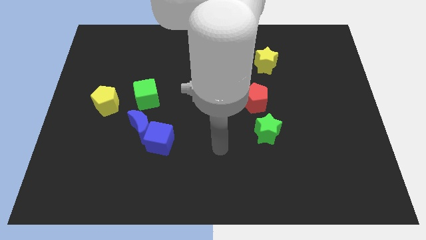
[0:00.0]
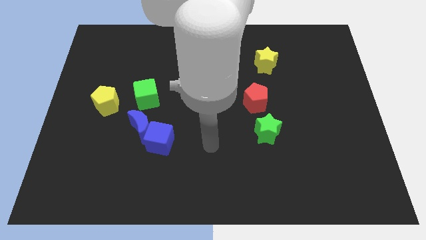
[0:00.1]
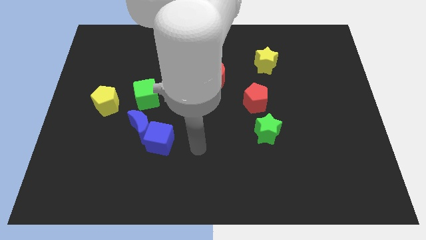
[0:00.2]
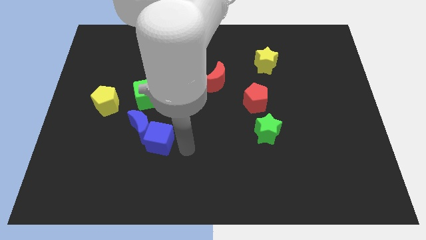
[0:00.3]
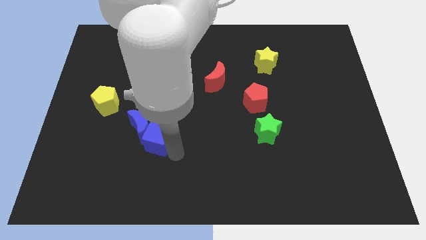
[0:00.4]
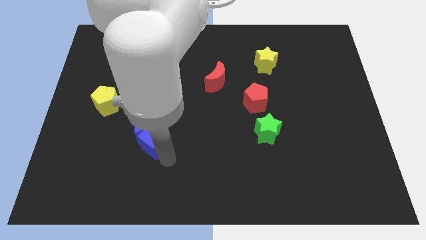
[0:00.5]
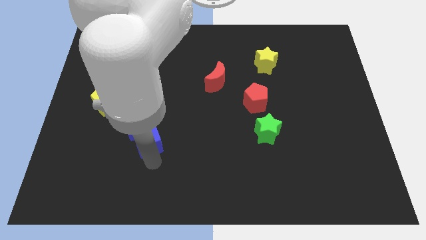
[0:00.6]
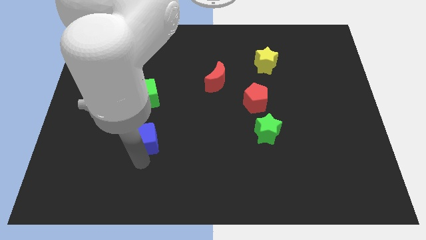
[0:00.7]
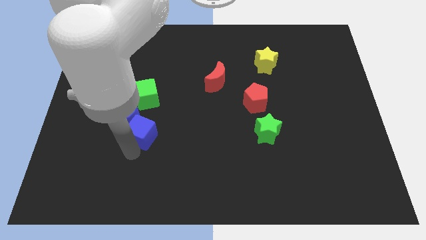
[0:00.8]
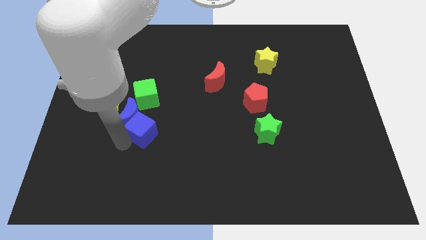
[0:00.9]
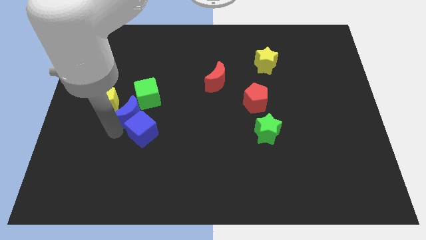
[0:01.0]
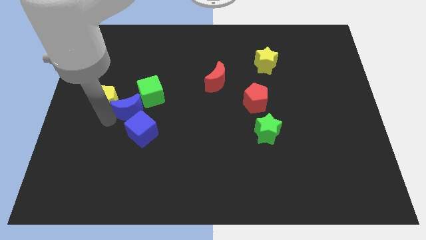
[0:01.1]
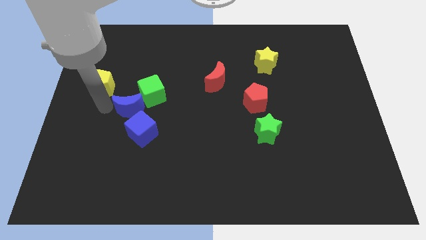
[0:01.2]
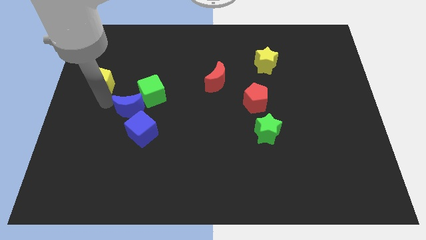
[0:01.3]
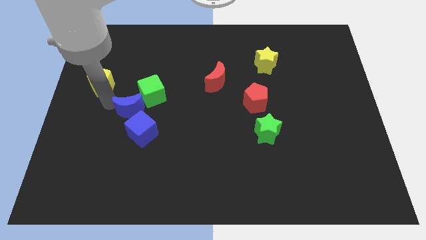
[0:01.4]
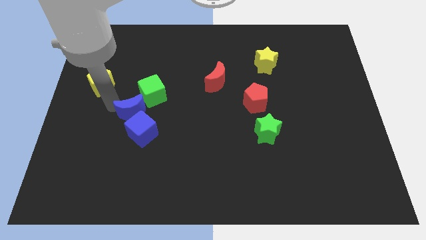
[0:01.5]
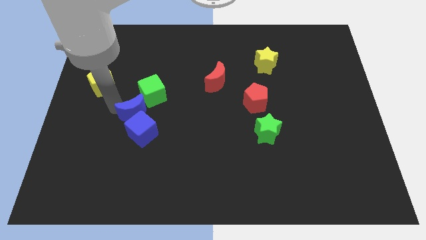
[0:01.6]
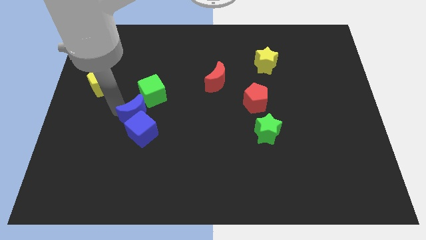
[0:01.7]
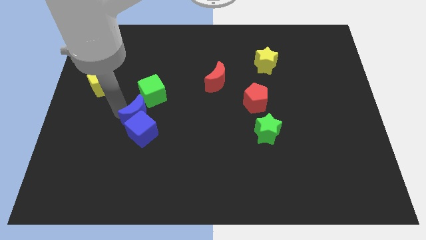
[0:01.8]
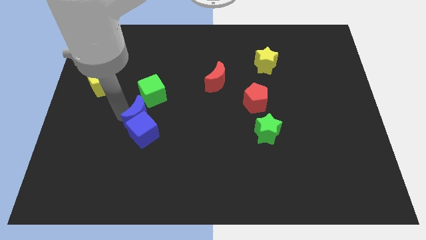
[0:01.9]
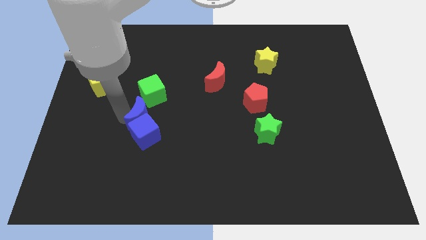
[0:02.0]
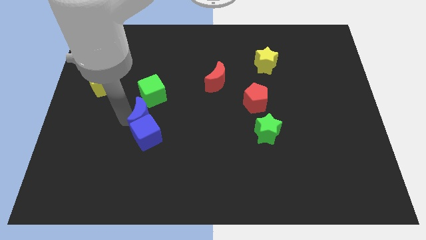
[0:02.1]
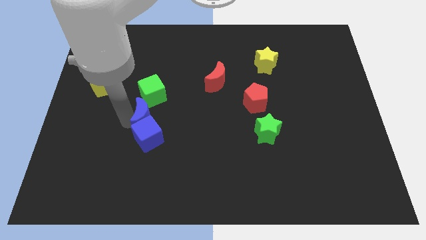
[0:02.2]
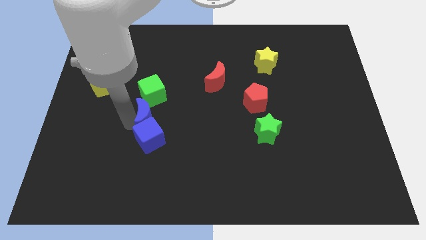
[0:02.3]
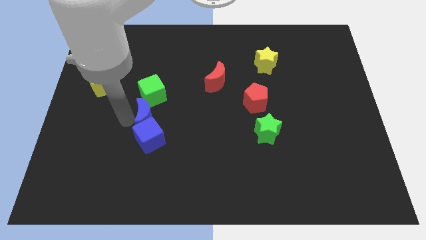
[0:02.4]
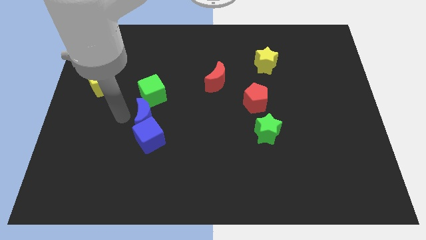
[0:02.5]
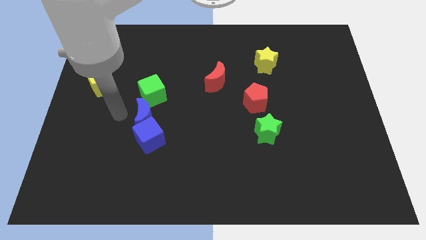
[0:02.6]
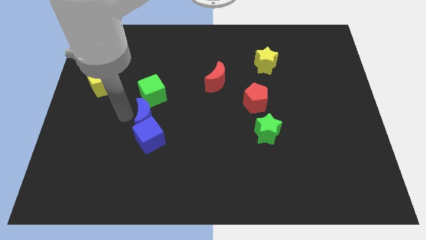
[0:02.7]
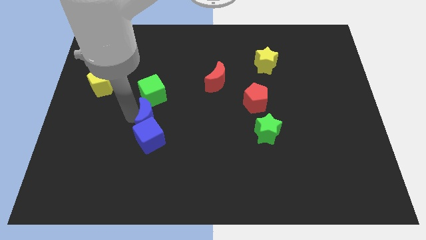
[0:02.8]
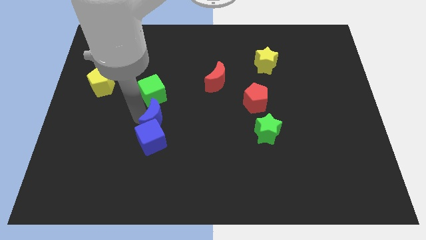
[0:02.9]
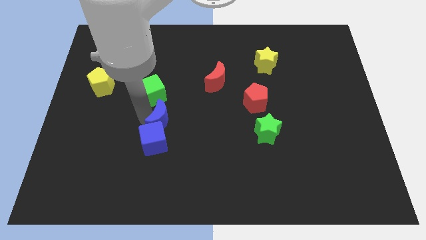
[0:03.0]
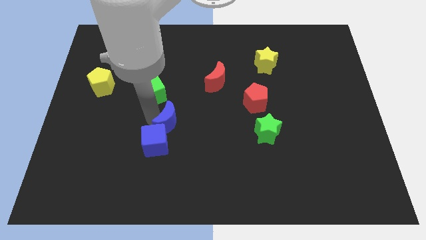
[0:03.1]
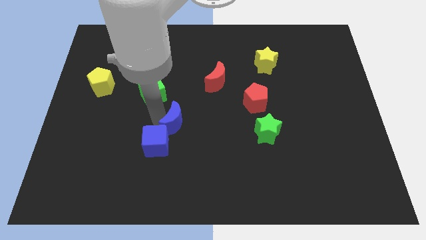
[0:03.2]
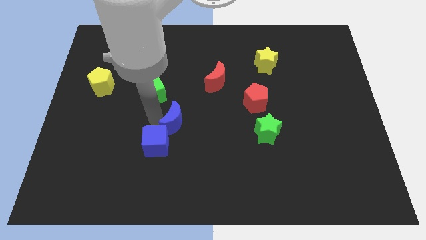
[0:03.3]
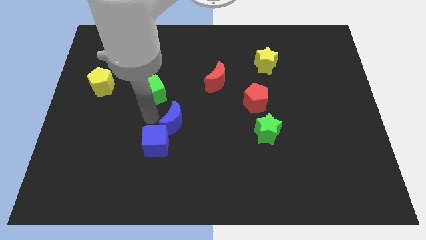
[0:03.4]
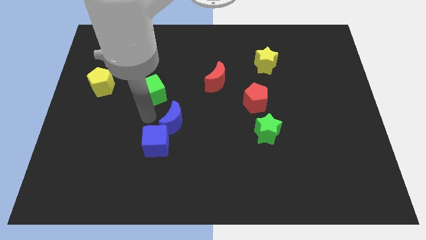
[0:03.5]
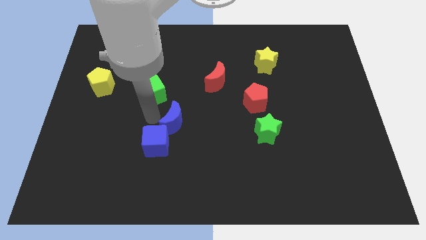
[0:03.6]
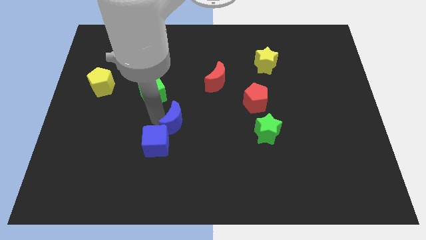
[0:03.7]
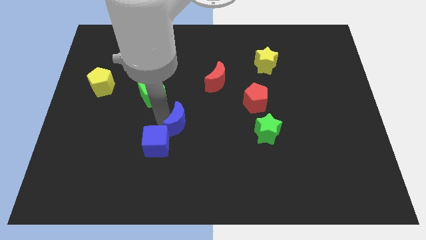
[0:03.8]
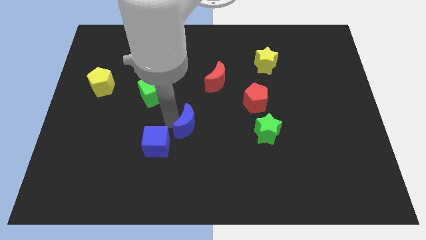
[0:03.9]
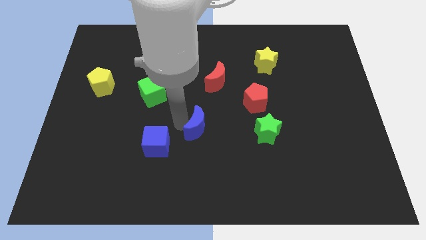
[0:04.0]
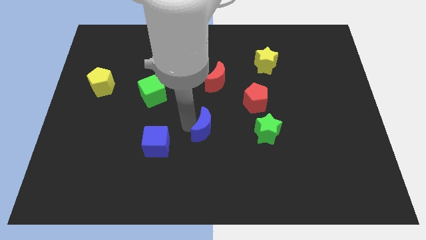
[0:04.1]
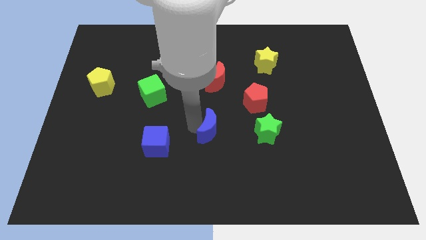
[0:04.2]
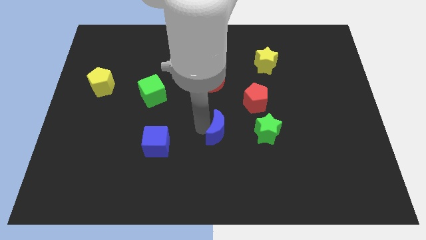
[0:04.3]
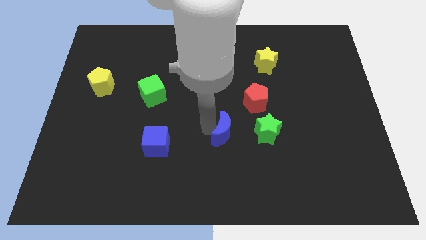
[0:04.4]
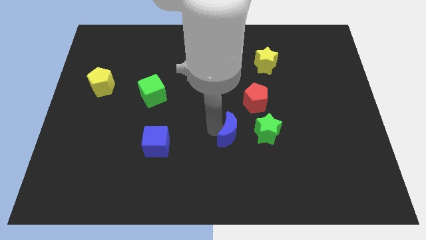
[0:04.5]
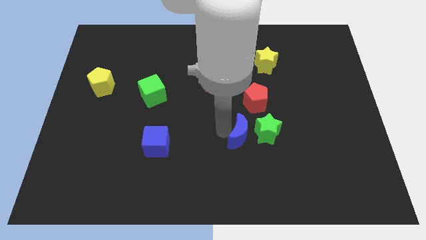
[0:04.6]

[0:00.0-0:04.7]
move the blue moon right

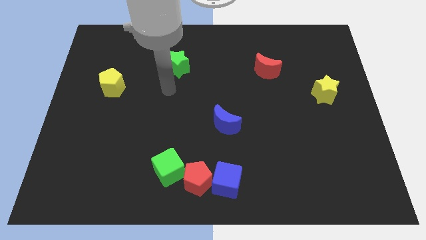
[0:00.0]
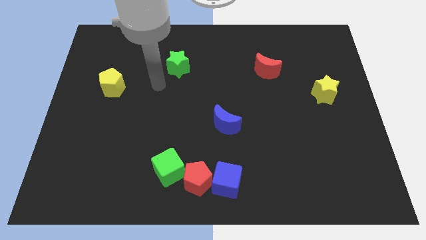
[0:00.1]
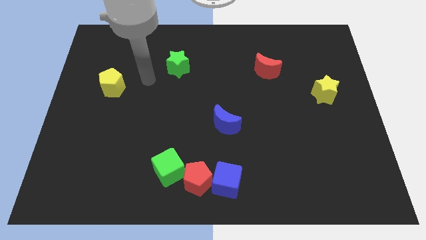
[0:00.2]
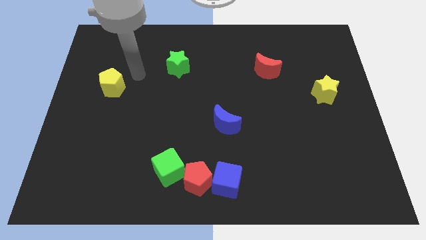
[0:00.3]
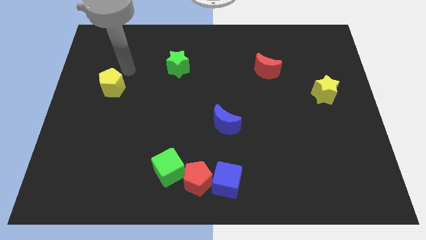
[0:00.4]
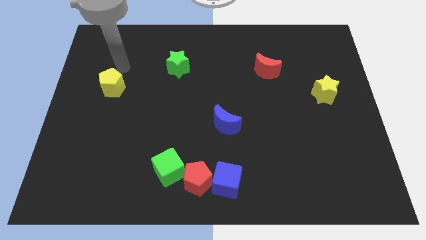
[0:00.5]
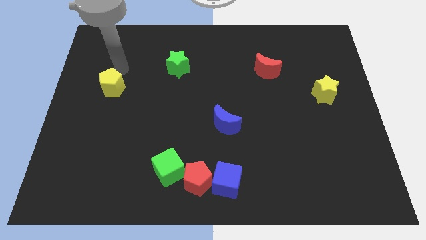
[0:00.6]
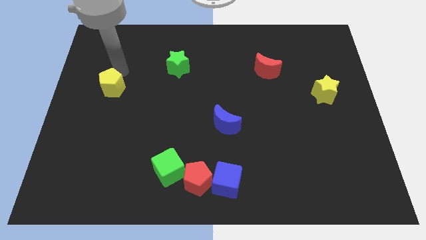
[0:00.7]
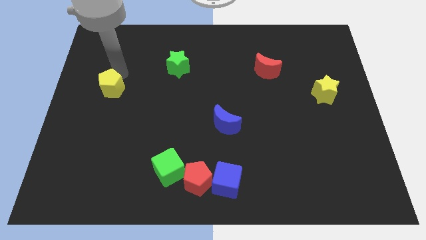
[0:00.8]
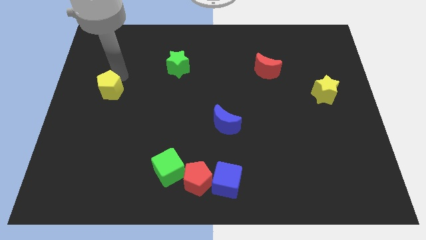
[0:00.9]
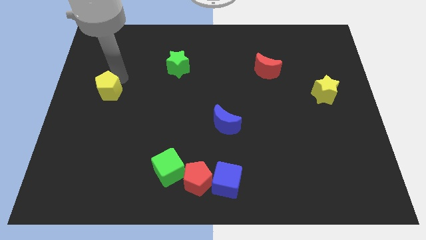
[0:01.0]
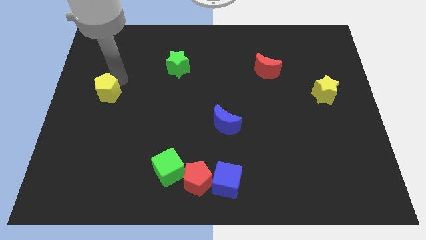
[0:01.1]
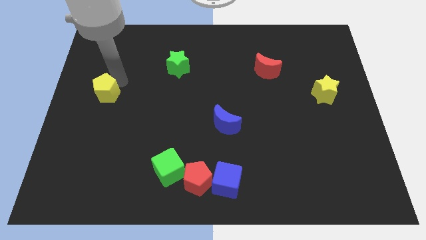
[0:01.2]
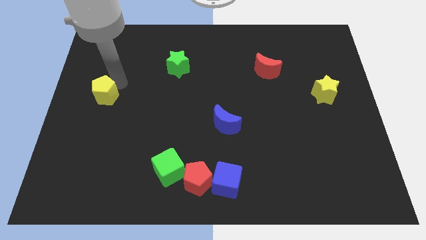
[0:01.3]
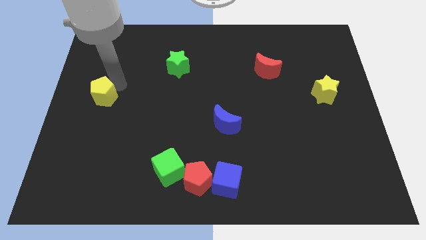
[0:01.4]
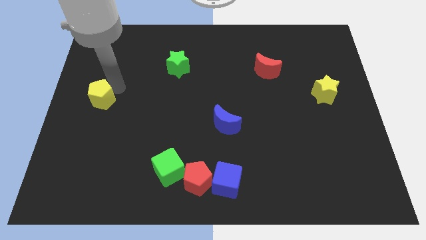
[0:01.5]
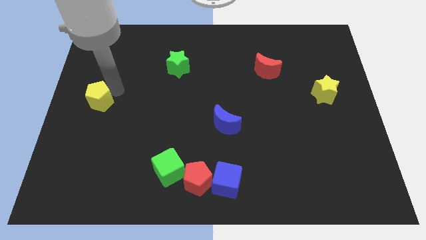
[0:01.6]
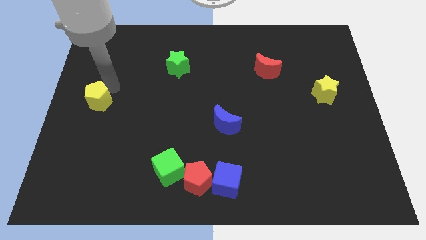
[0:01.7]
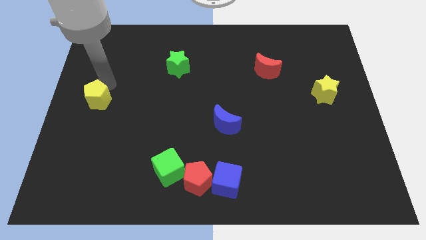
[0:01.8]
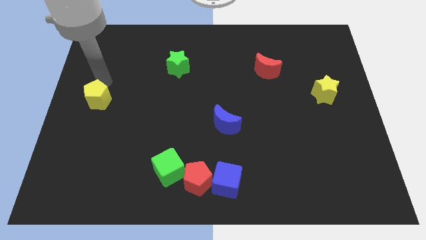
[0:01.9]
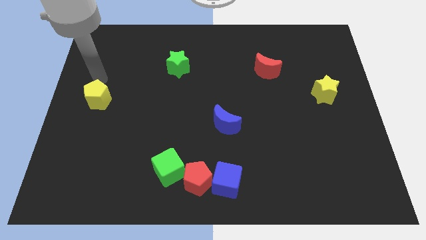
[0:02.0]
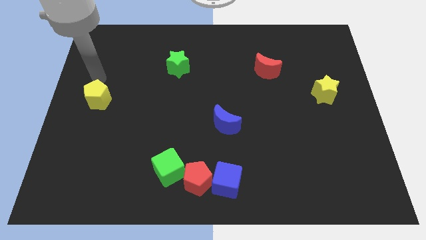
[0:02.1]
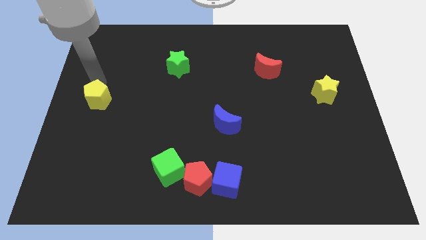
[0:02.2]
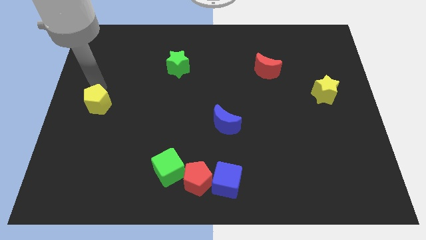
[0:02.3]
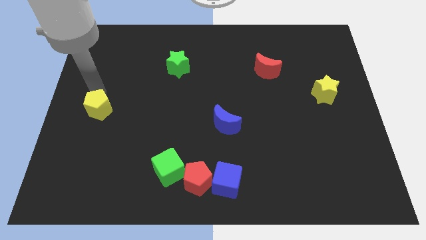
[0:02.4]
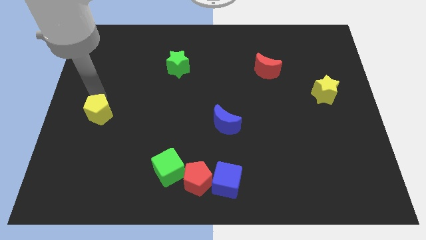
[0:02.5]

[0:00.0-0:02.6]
slide the yellow pentagon down slightly

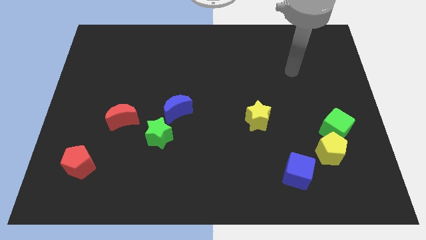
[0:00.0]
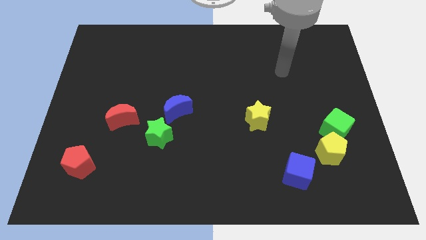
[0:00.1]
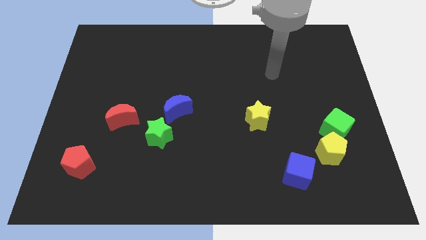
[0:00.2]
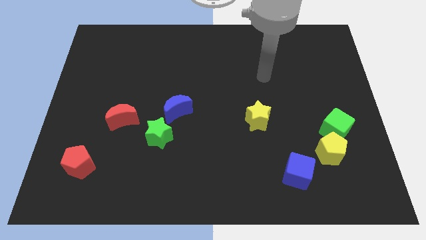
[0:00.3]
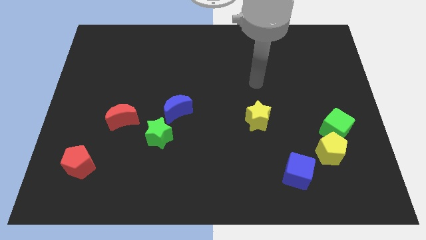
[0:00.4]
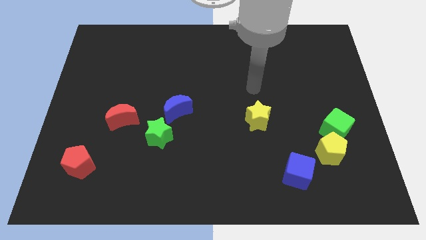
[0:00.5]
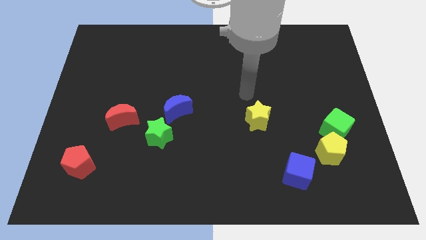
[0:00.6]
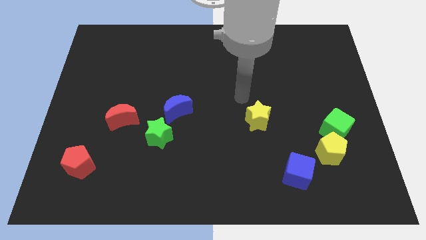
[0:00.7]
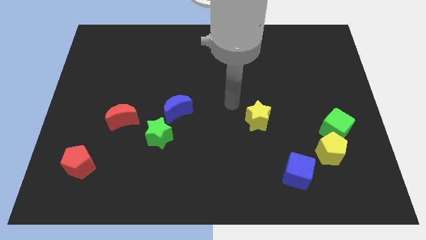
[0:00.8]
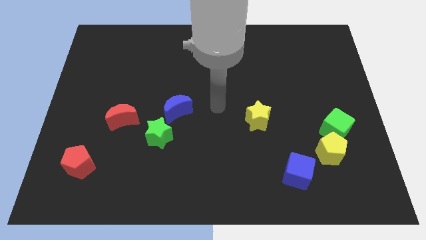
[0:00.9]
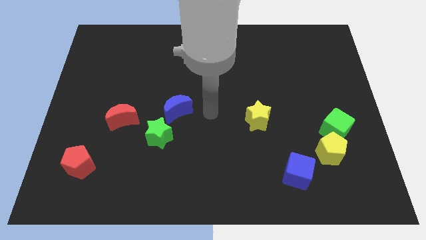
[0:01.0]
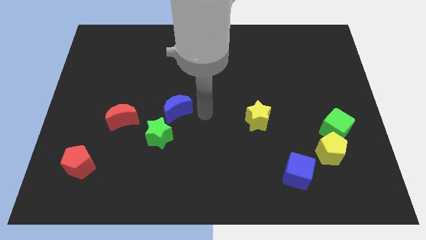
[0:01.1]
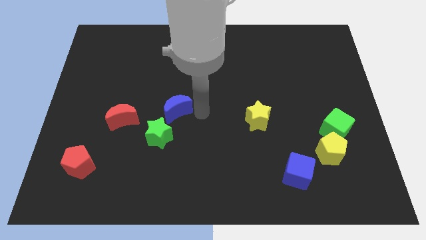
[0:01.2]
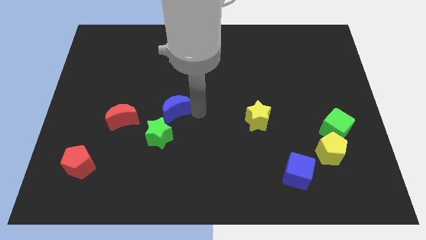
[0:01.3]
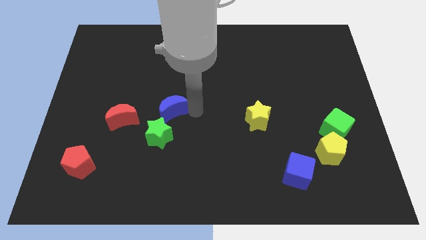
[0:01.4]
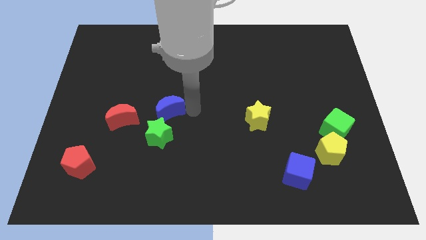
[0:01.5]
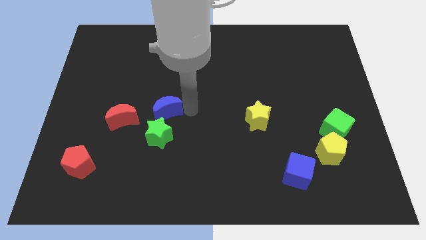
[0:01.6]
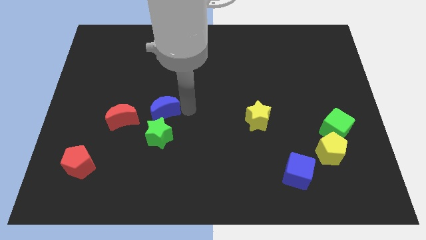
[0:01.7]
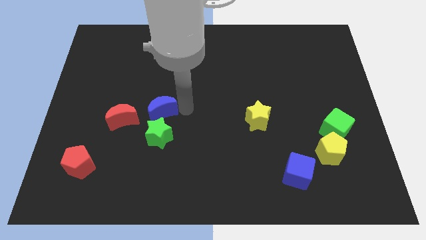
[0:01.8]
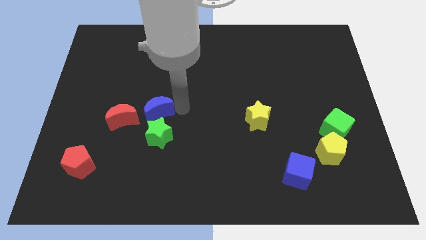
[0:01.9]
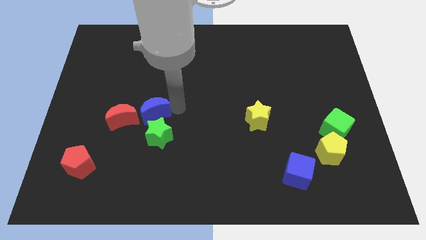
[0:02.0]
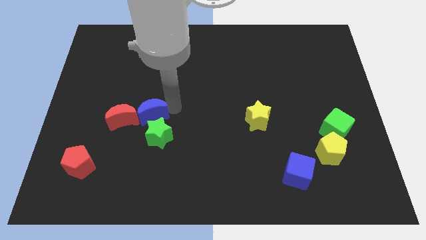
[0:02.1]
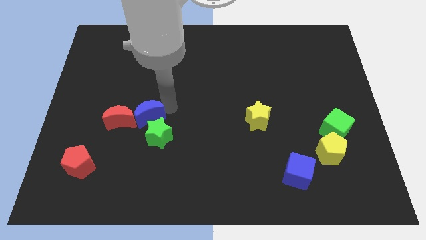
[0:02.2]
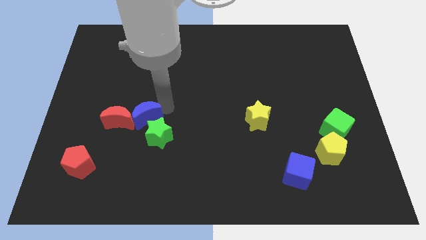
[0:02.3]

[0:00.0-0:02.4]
move the blue moon somewhat to the left
